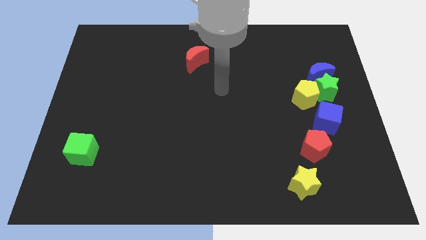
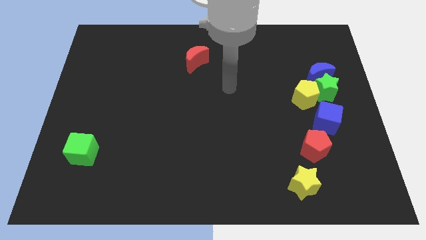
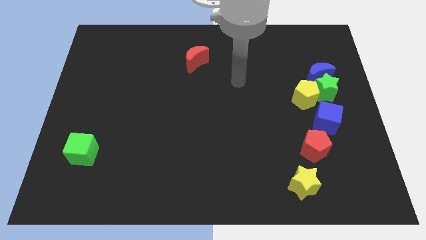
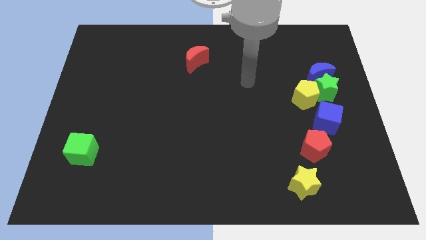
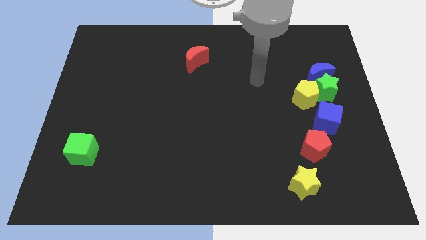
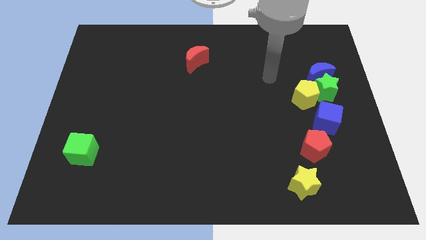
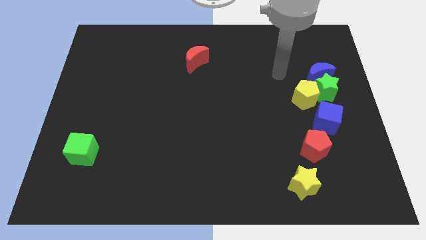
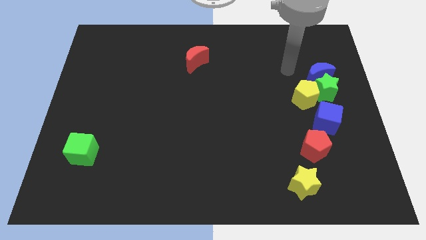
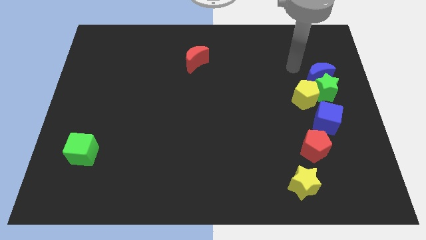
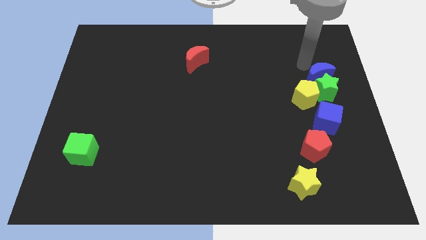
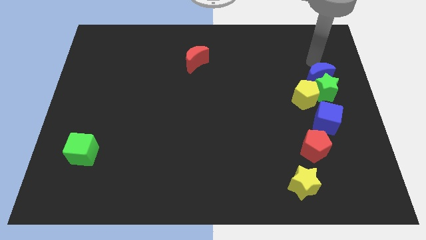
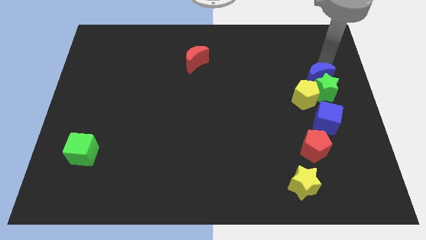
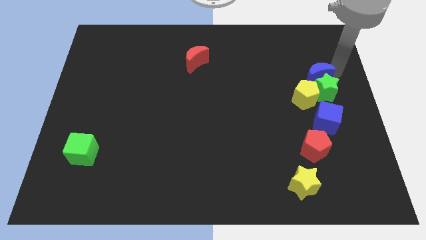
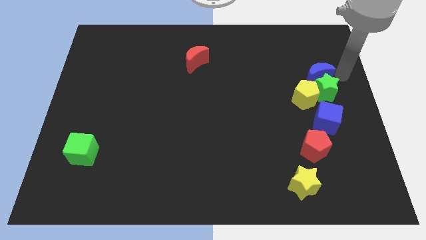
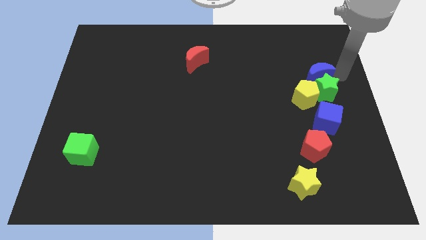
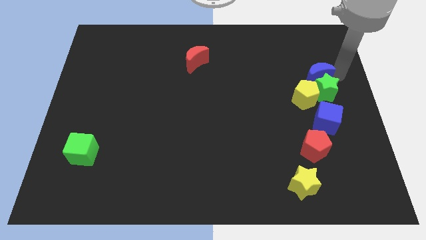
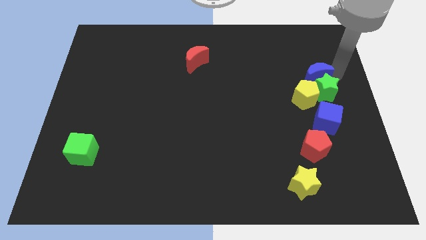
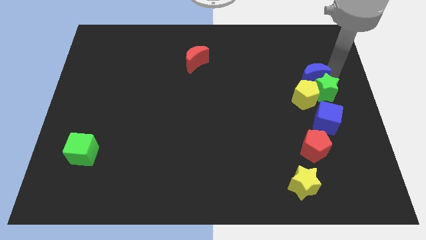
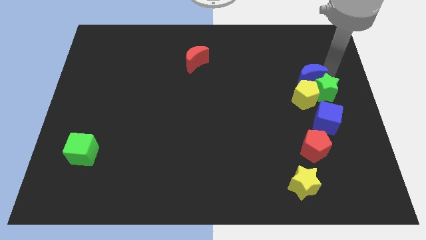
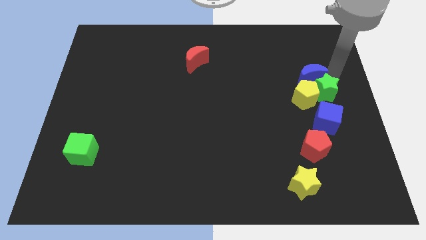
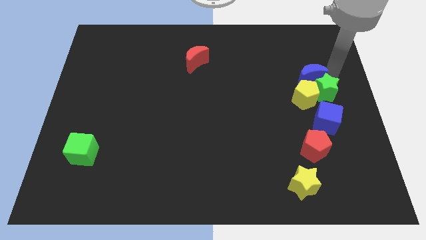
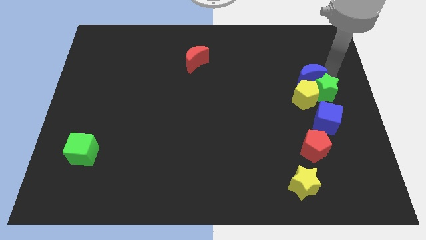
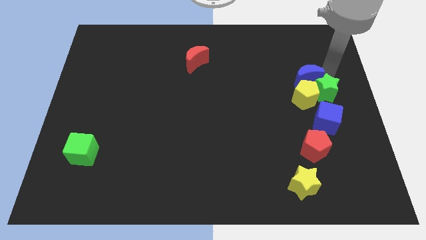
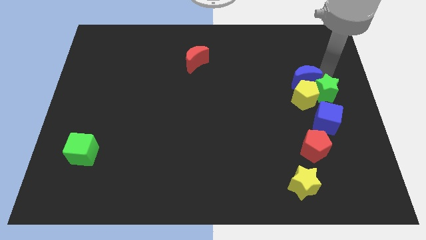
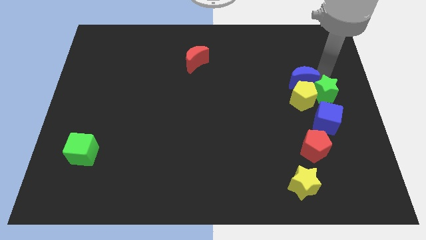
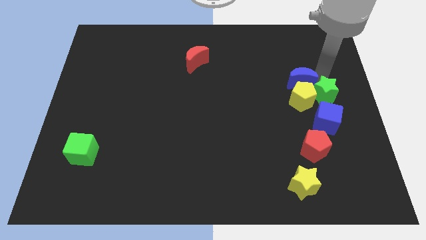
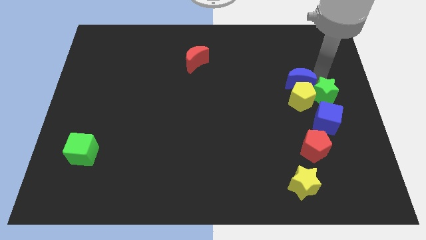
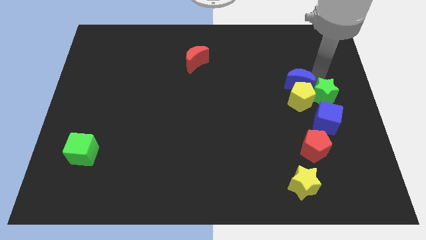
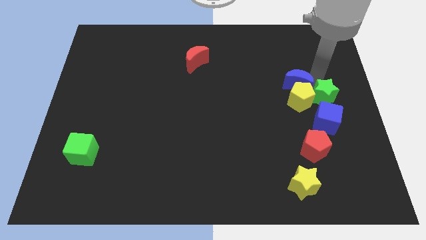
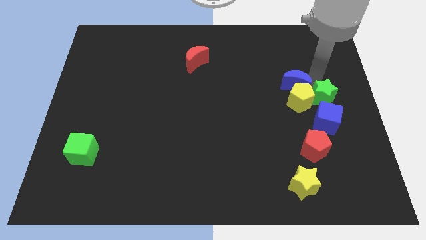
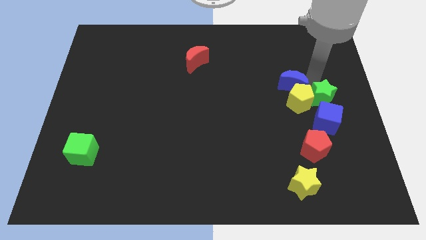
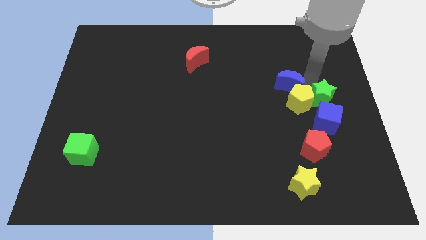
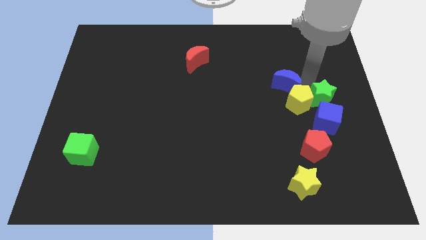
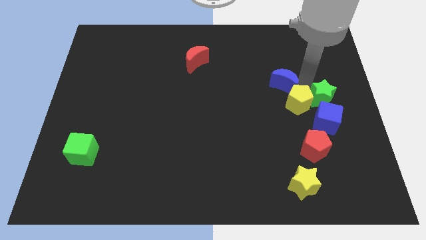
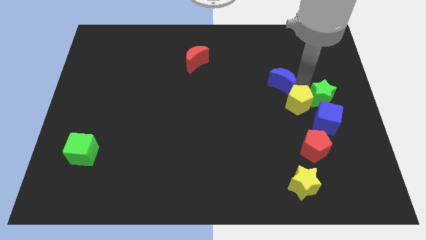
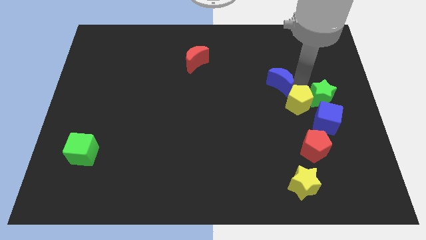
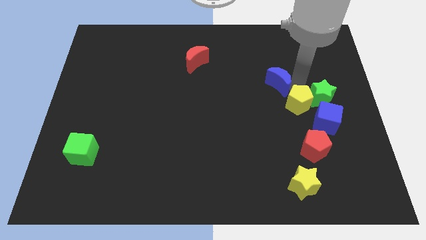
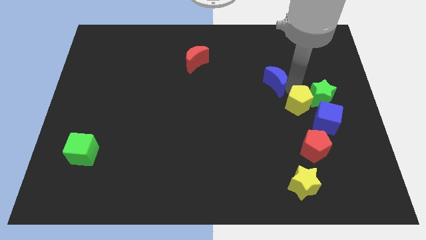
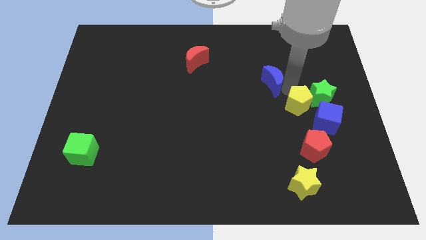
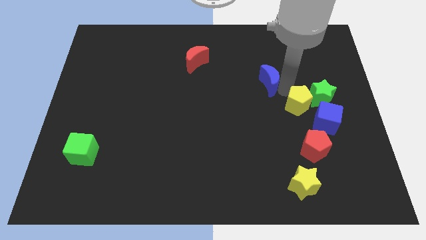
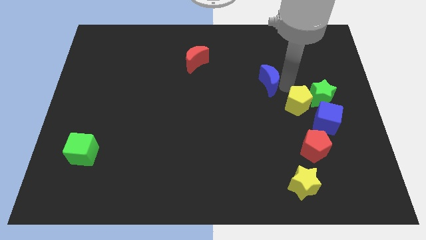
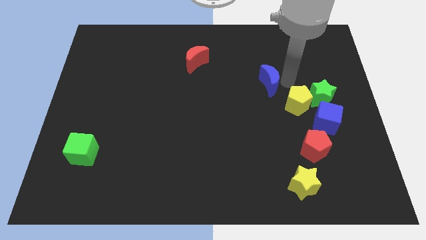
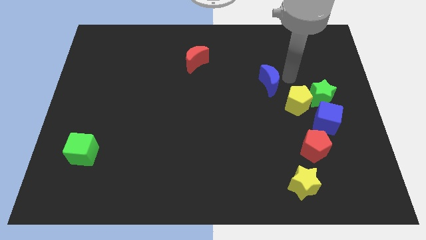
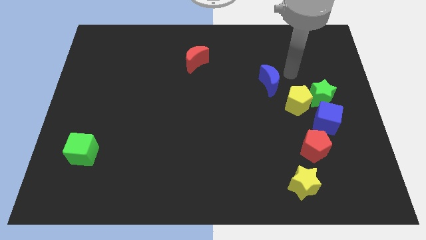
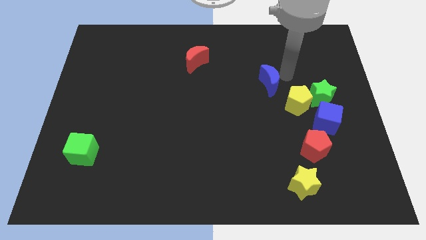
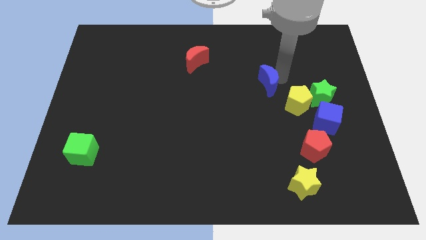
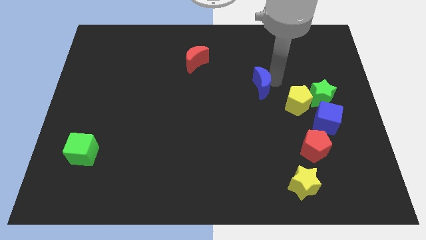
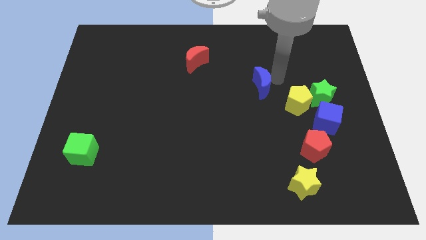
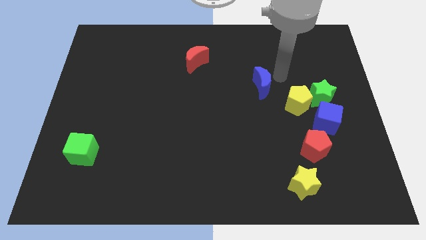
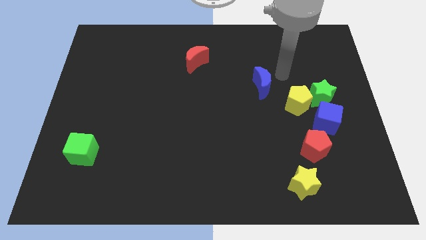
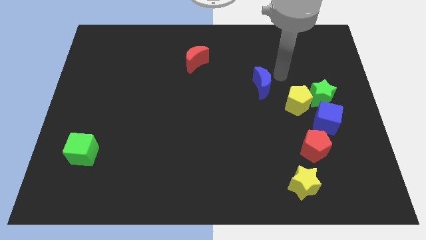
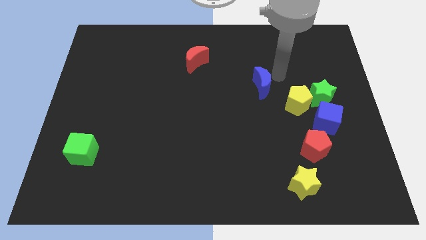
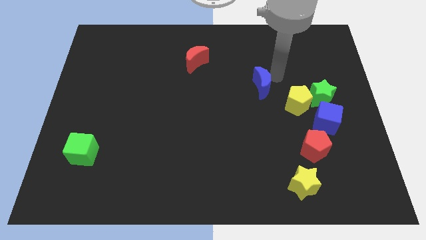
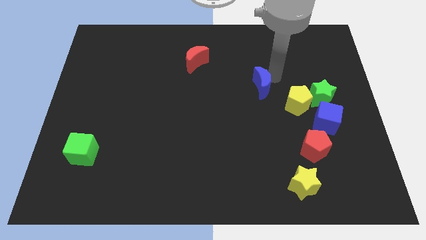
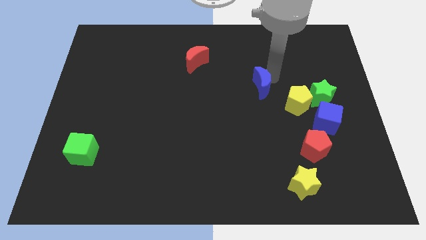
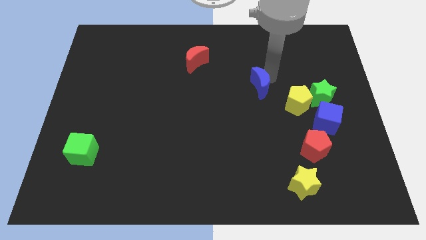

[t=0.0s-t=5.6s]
push the blue moon to the middle

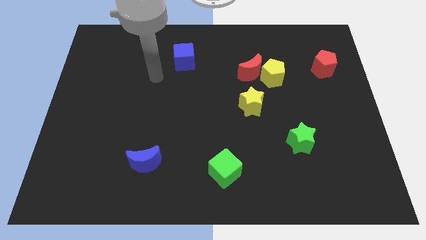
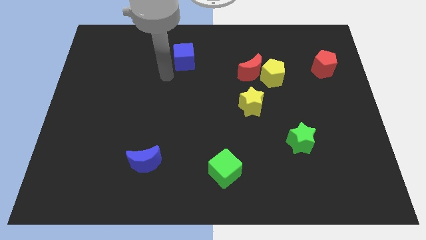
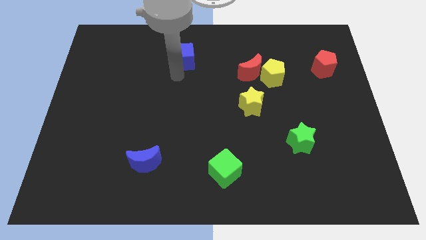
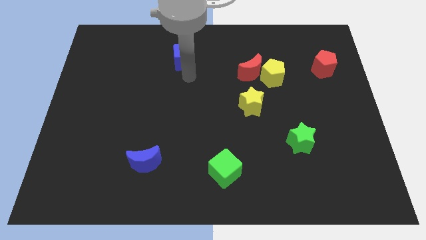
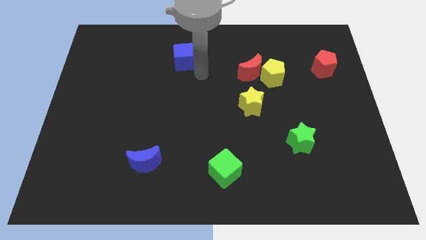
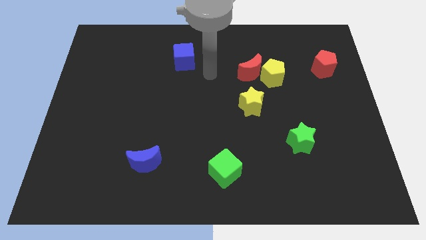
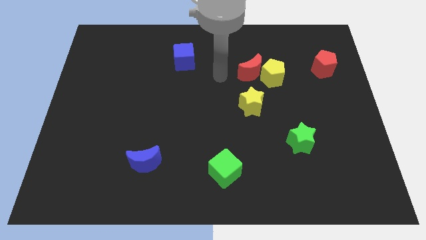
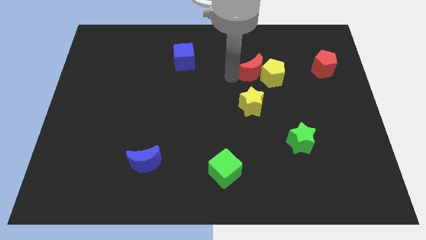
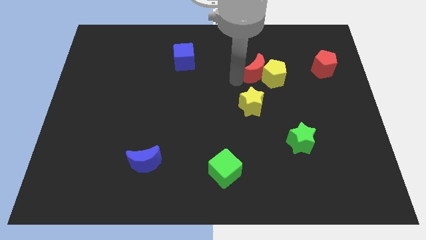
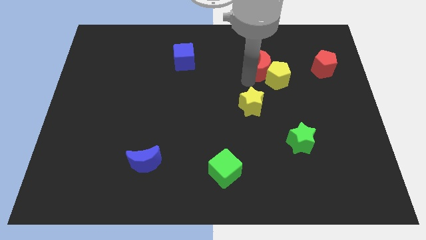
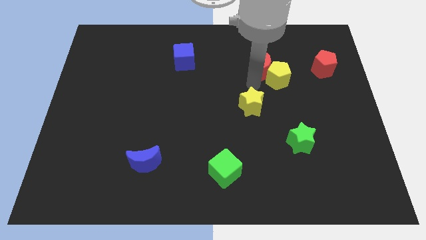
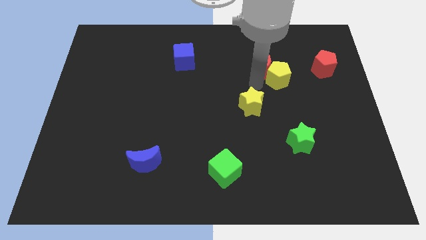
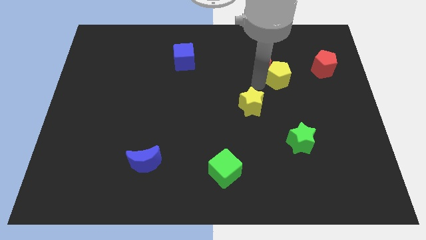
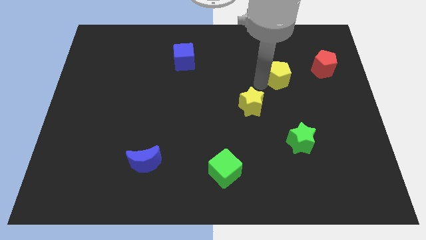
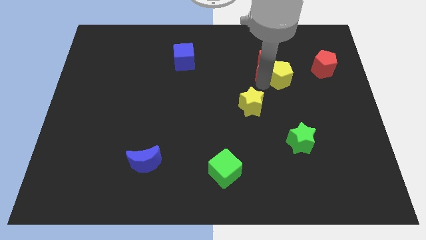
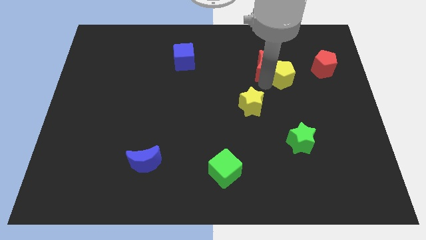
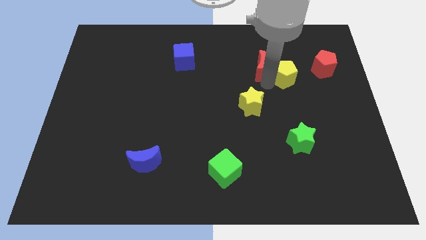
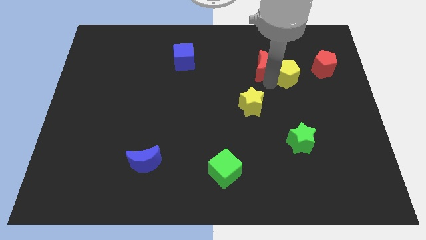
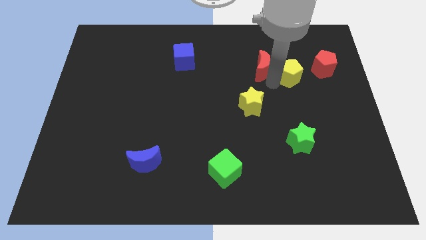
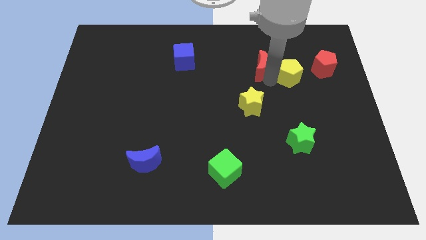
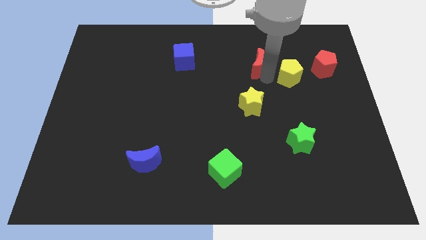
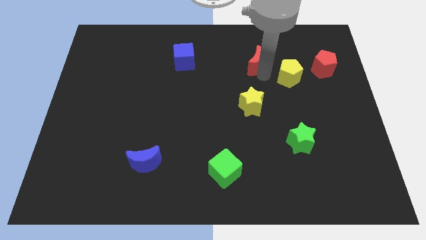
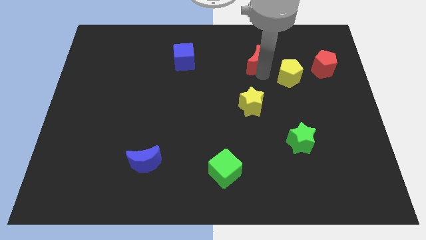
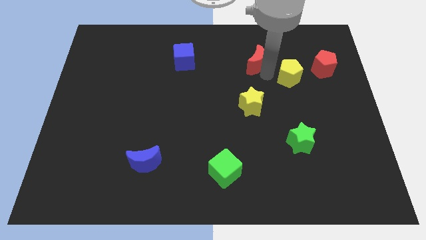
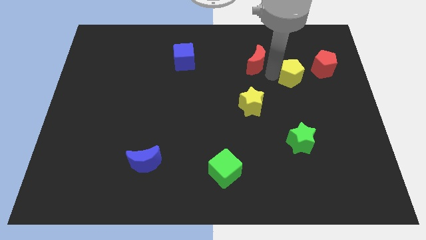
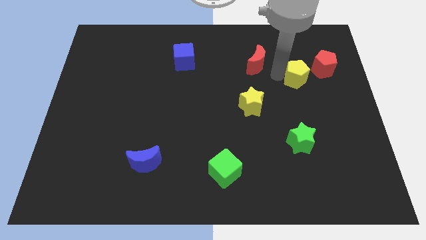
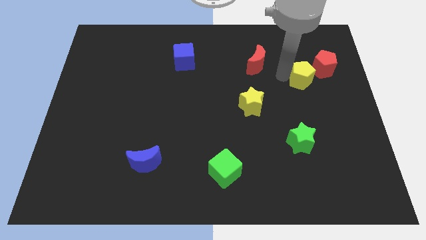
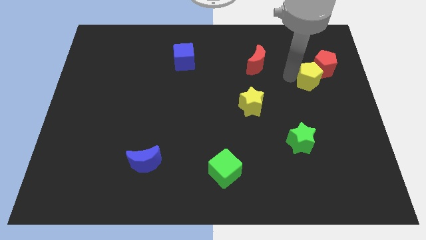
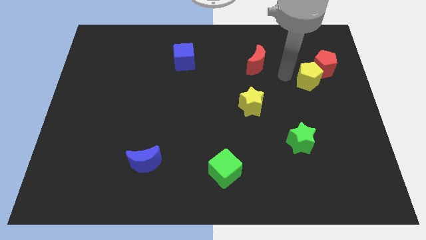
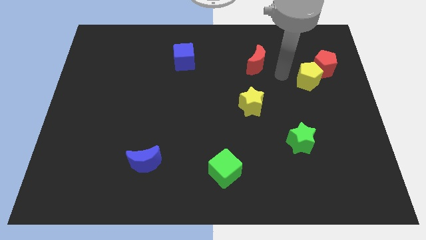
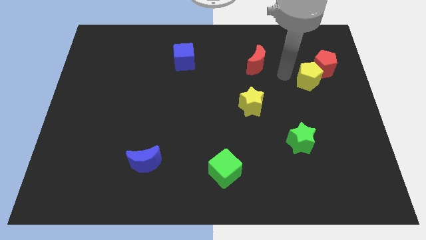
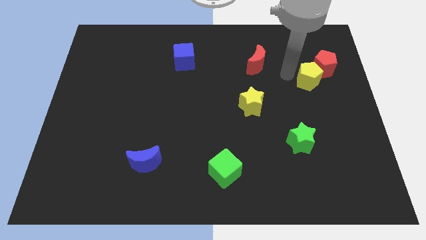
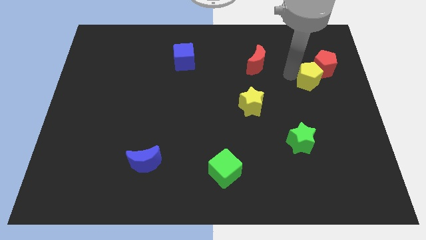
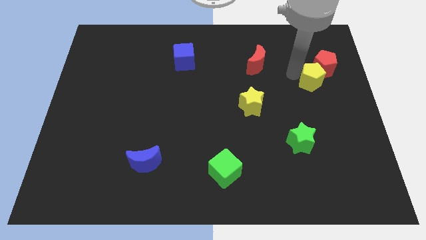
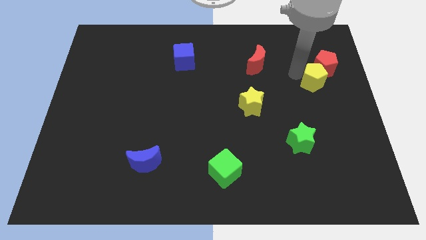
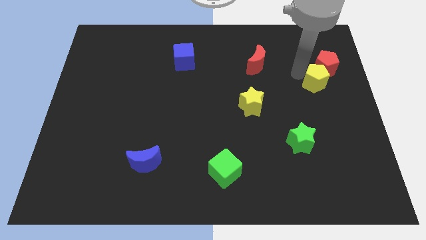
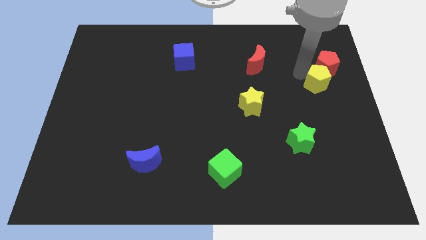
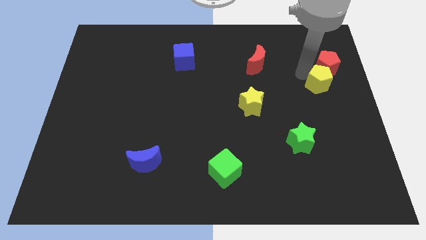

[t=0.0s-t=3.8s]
slide the yellow pentagon to the right side
